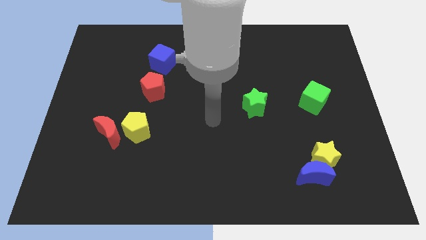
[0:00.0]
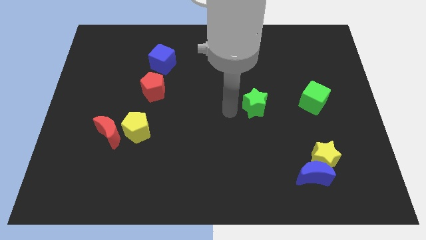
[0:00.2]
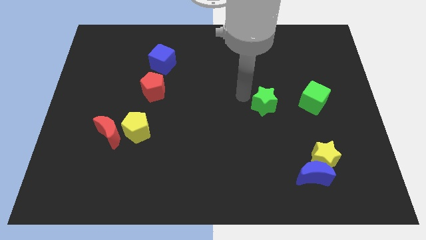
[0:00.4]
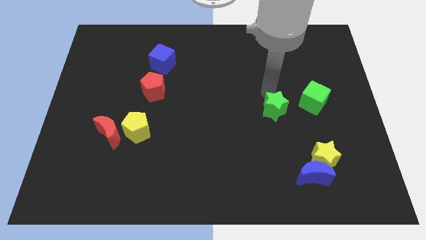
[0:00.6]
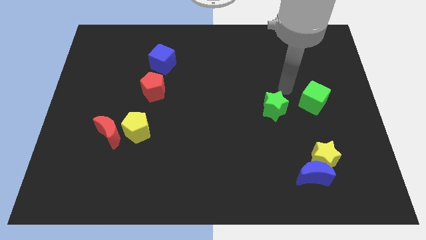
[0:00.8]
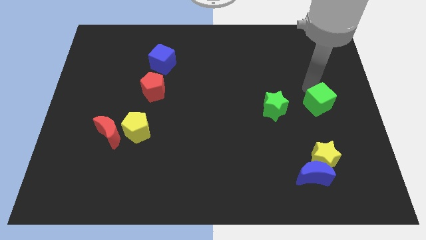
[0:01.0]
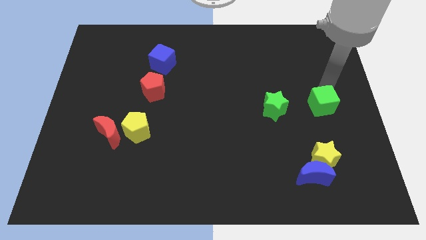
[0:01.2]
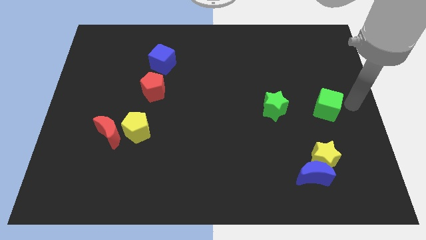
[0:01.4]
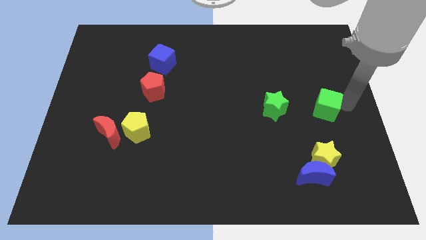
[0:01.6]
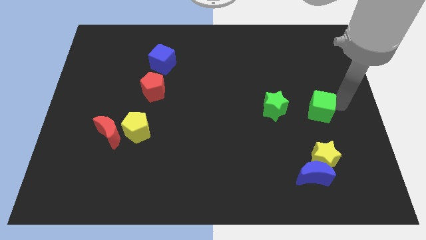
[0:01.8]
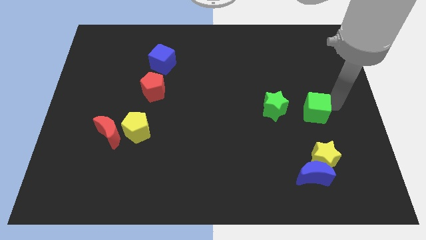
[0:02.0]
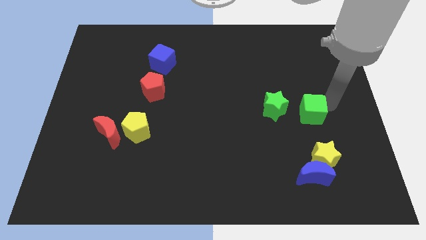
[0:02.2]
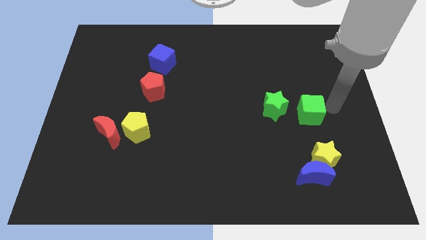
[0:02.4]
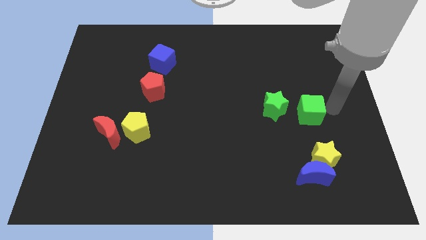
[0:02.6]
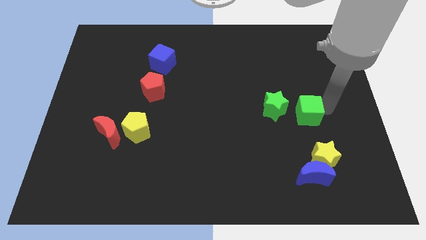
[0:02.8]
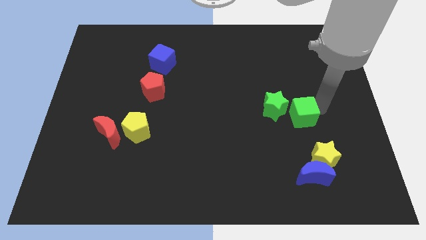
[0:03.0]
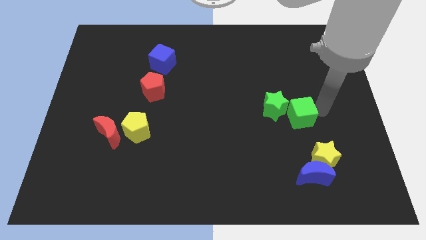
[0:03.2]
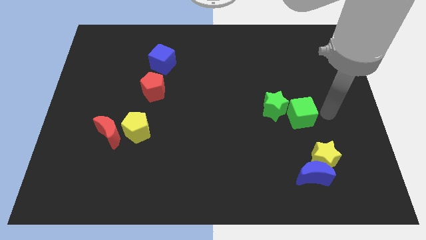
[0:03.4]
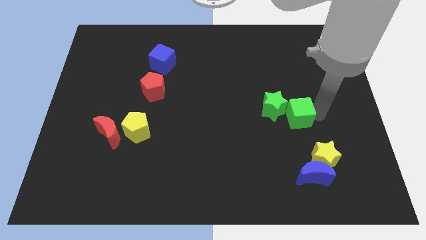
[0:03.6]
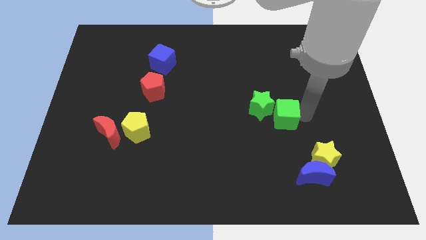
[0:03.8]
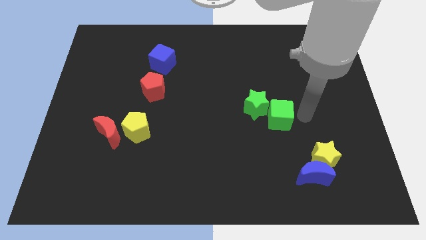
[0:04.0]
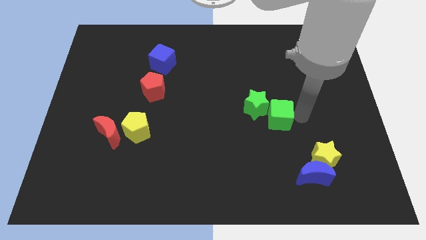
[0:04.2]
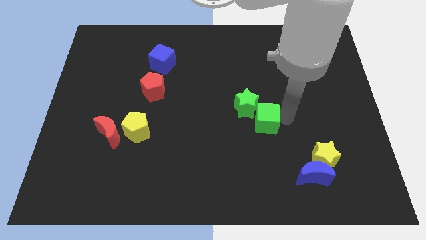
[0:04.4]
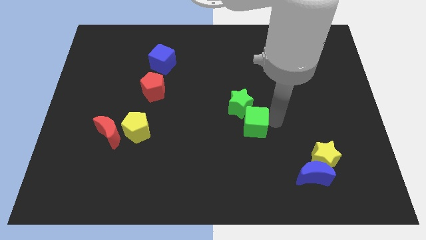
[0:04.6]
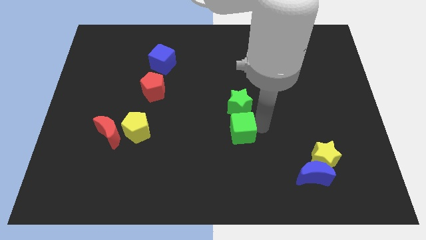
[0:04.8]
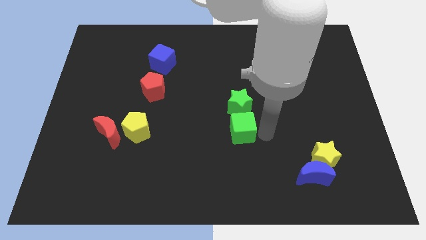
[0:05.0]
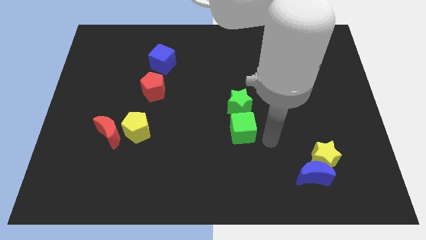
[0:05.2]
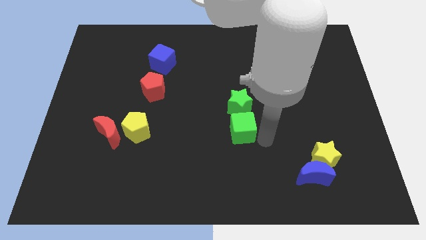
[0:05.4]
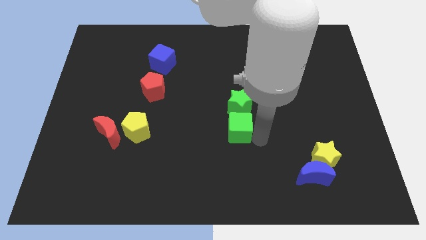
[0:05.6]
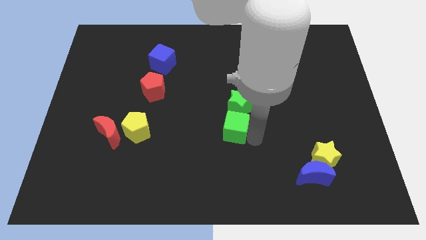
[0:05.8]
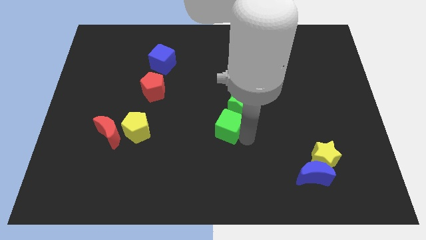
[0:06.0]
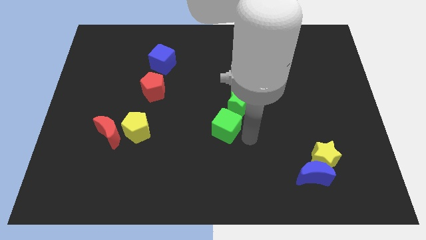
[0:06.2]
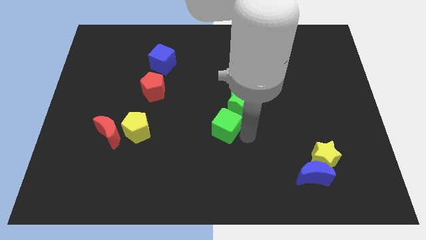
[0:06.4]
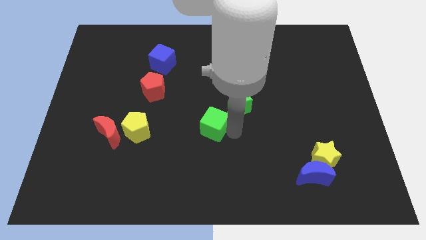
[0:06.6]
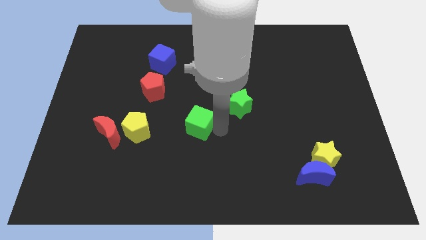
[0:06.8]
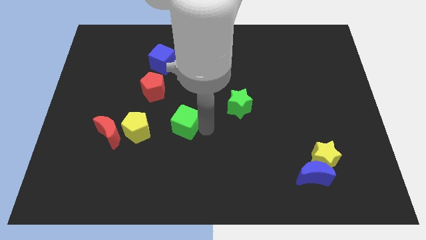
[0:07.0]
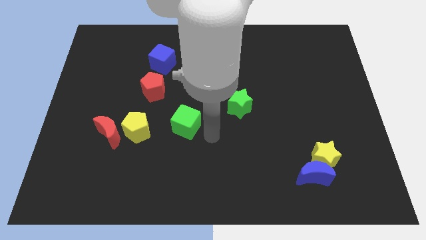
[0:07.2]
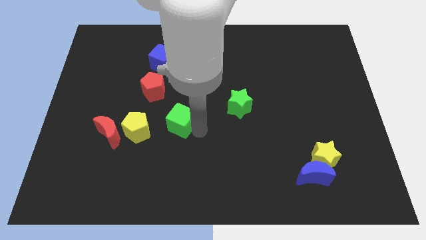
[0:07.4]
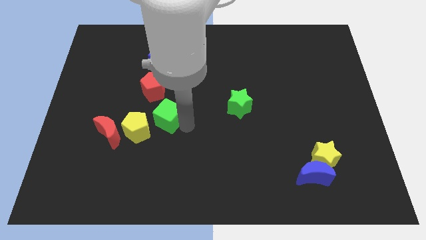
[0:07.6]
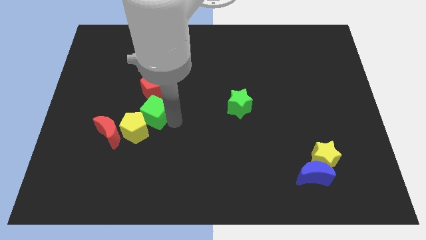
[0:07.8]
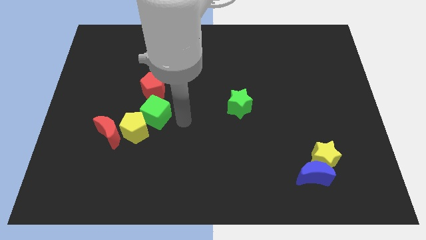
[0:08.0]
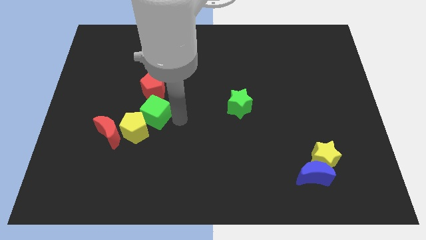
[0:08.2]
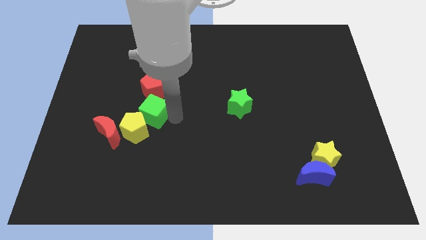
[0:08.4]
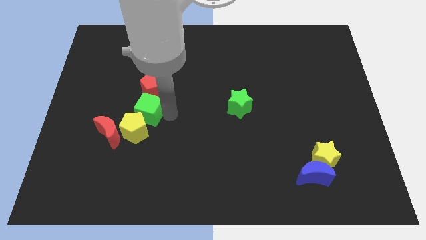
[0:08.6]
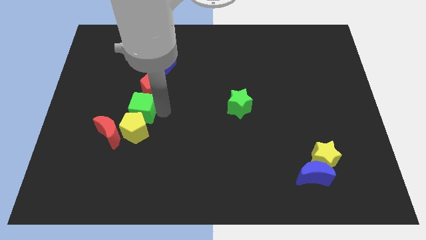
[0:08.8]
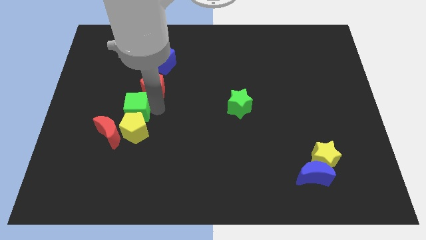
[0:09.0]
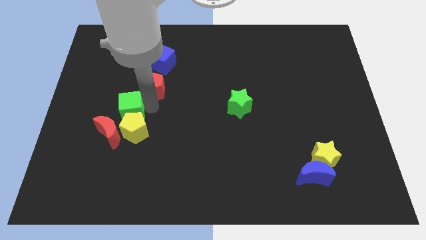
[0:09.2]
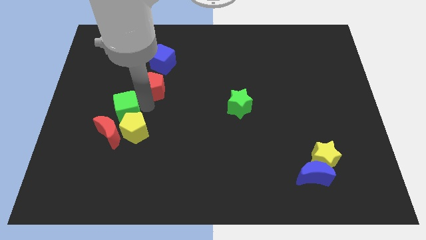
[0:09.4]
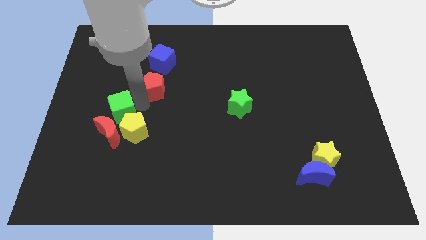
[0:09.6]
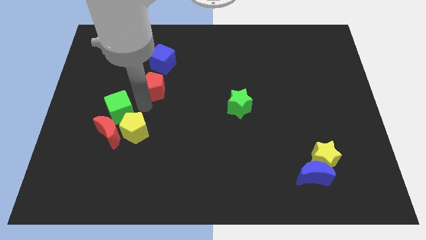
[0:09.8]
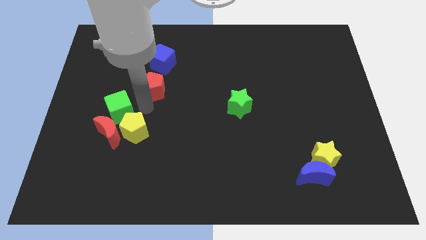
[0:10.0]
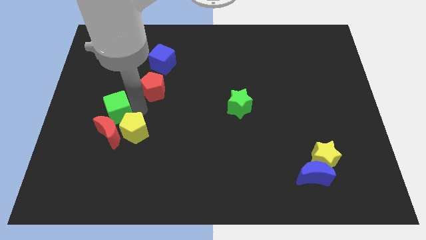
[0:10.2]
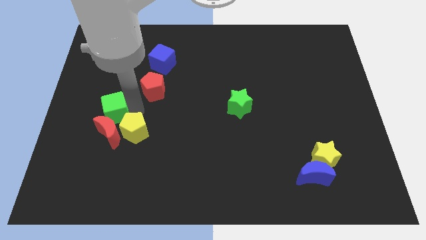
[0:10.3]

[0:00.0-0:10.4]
slide the green cube diagonally up and to the left of the red moon

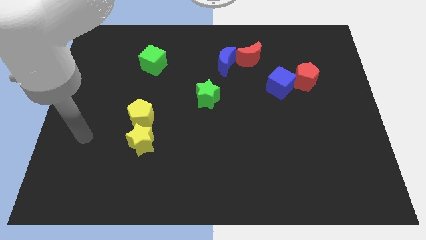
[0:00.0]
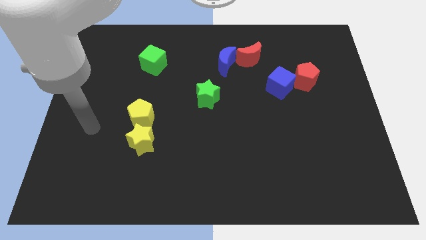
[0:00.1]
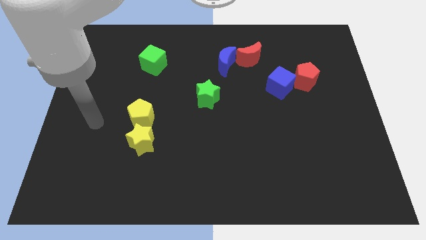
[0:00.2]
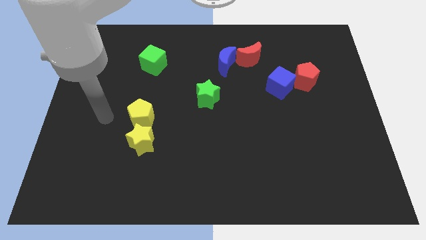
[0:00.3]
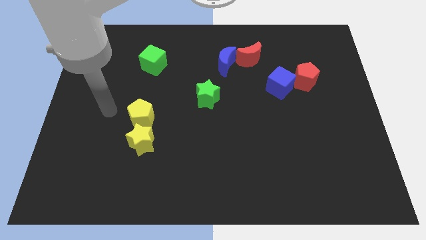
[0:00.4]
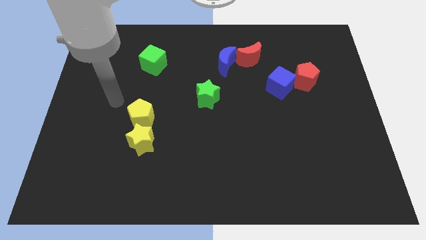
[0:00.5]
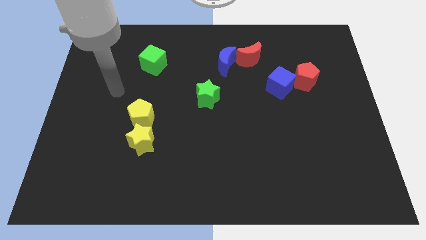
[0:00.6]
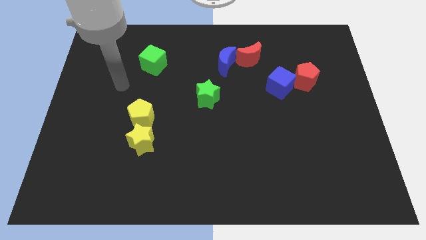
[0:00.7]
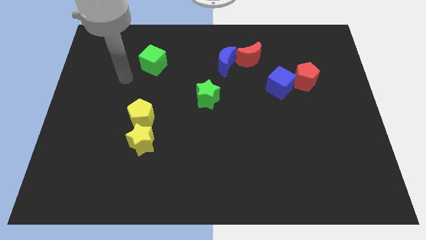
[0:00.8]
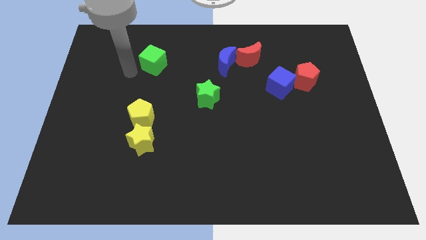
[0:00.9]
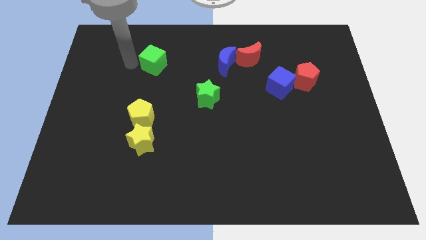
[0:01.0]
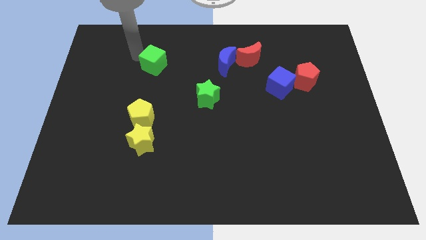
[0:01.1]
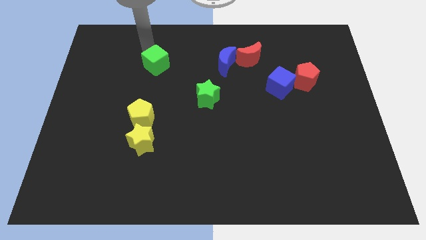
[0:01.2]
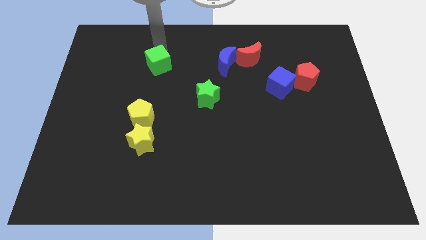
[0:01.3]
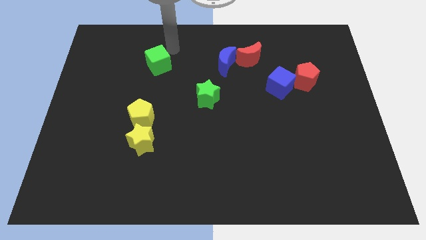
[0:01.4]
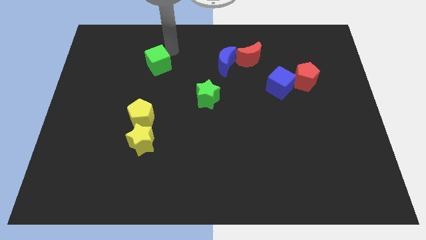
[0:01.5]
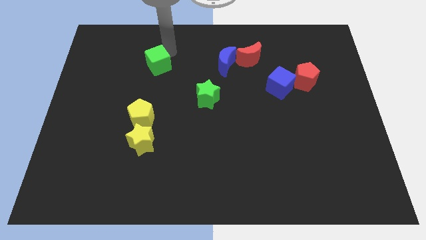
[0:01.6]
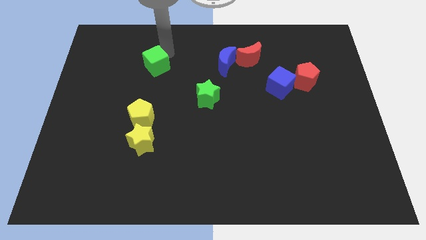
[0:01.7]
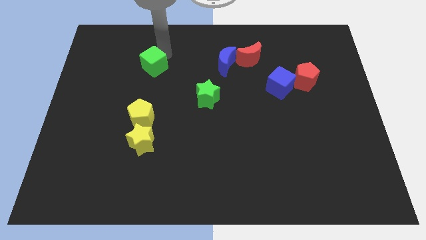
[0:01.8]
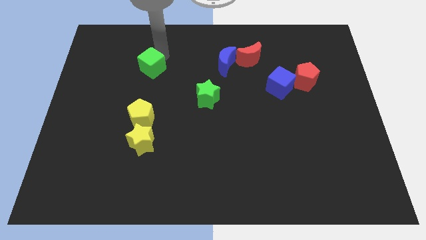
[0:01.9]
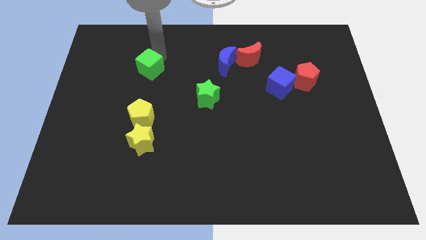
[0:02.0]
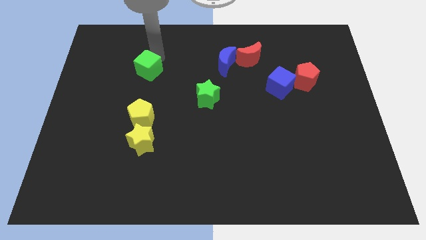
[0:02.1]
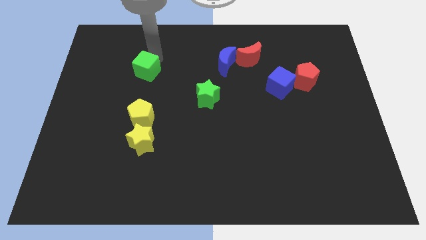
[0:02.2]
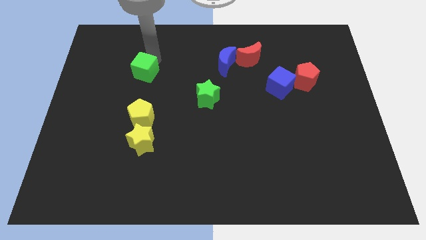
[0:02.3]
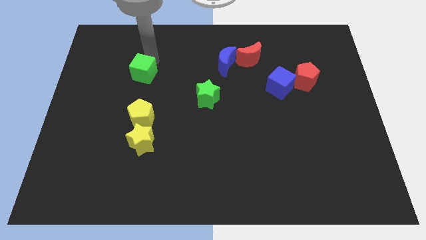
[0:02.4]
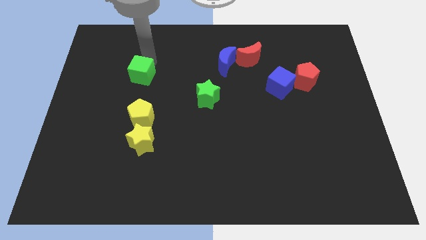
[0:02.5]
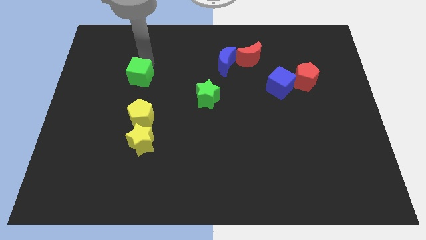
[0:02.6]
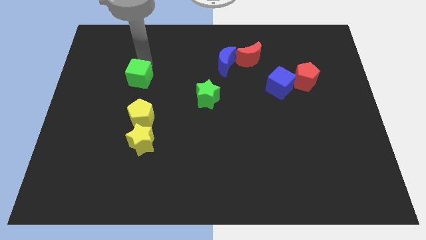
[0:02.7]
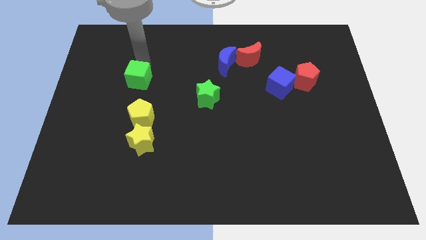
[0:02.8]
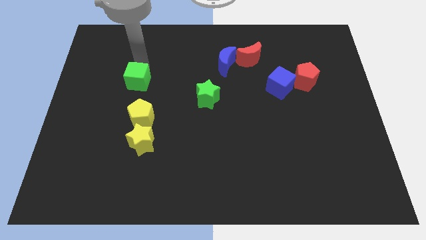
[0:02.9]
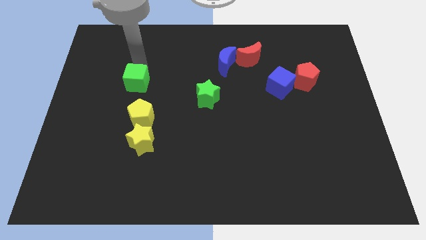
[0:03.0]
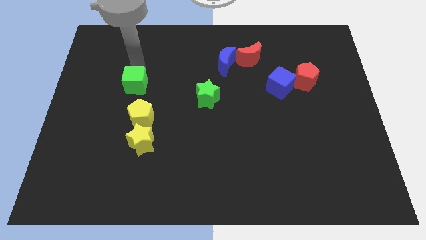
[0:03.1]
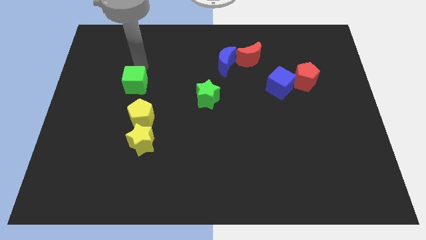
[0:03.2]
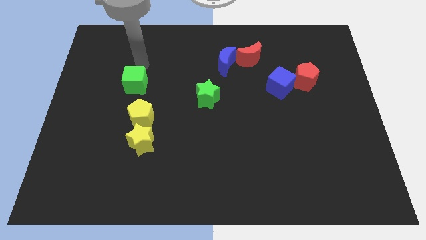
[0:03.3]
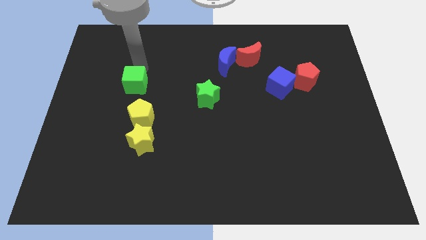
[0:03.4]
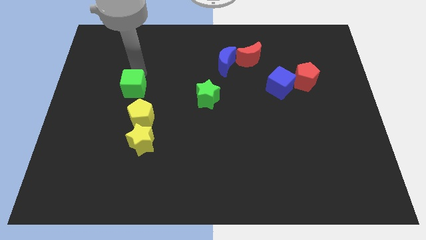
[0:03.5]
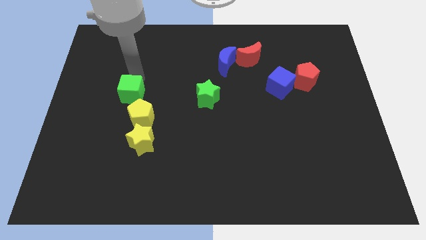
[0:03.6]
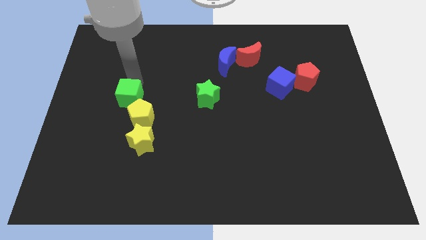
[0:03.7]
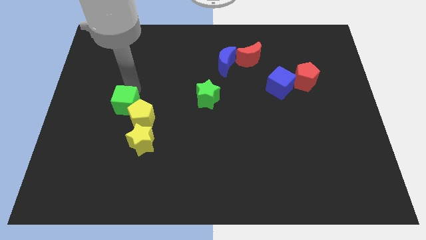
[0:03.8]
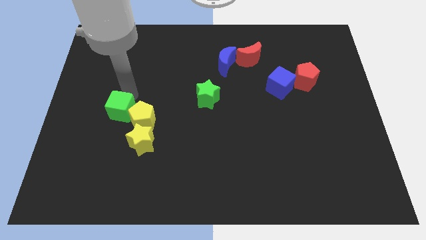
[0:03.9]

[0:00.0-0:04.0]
slide the green cube to the top left of the yellow star
